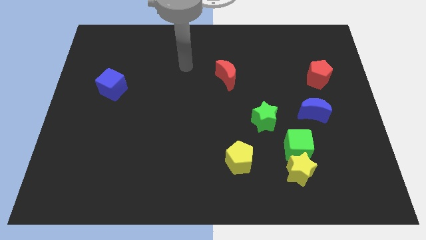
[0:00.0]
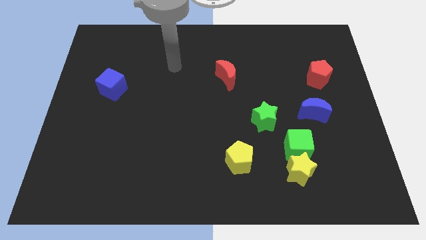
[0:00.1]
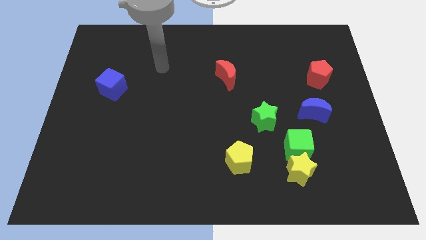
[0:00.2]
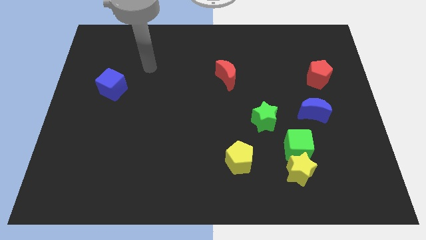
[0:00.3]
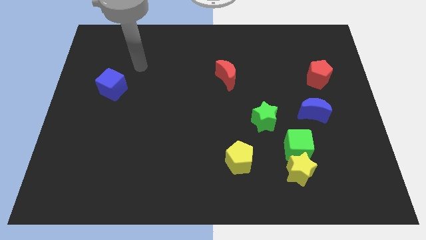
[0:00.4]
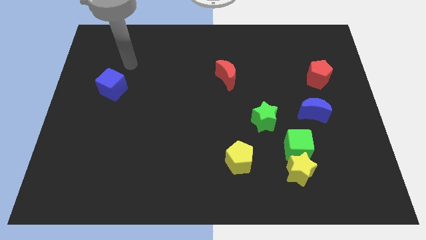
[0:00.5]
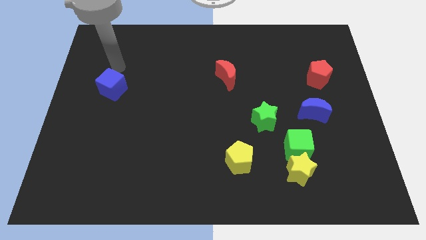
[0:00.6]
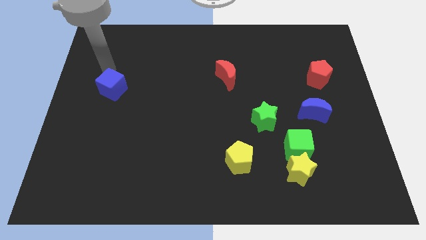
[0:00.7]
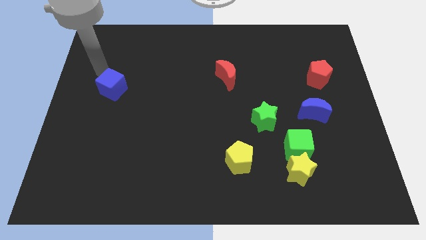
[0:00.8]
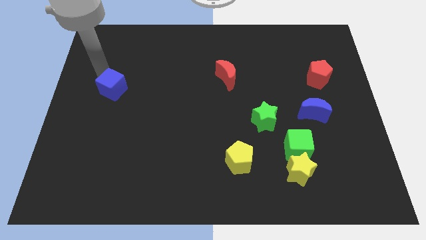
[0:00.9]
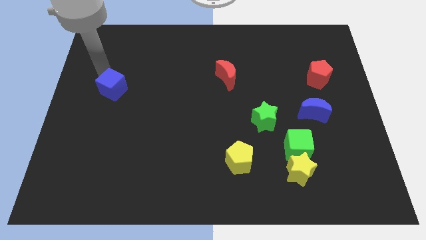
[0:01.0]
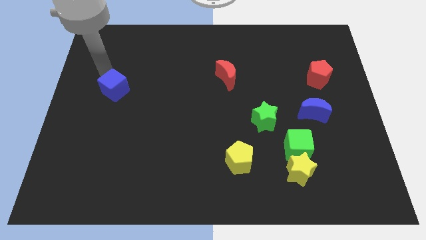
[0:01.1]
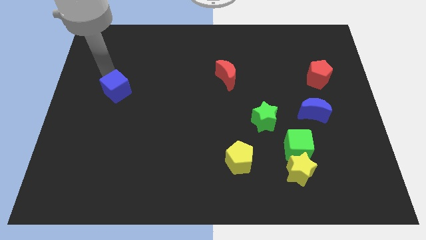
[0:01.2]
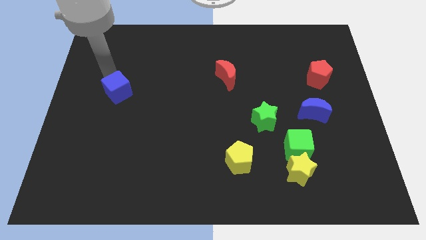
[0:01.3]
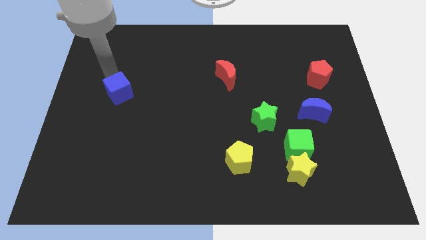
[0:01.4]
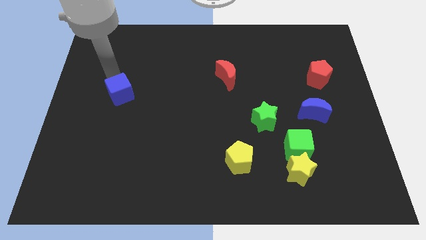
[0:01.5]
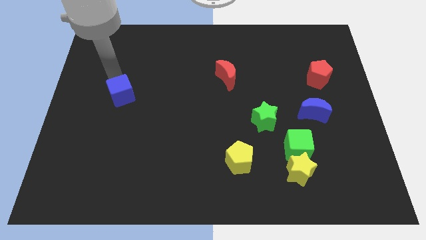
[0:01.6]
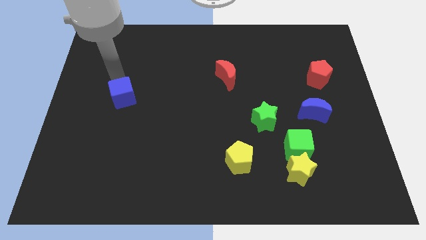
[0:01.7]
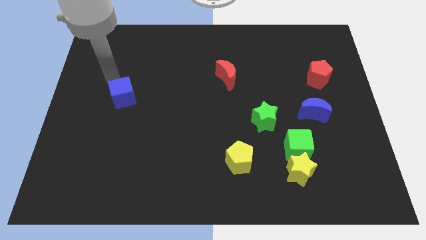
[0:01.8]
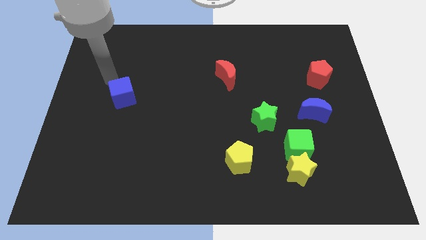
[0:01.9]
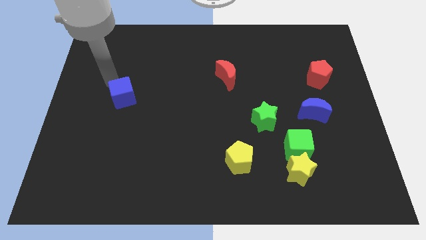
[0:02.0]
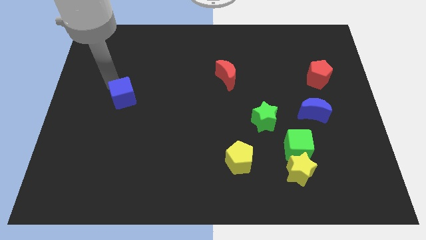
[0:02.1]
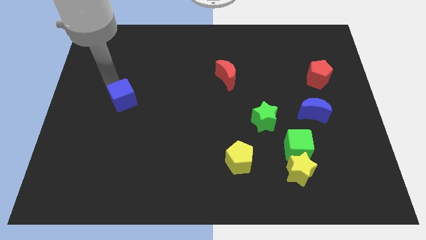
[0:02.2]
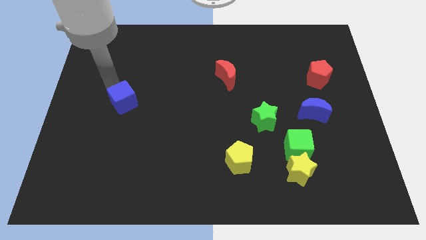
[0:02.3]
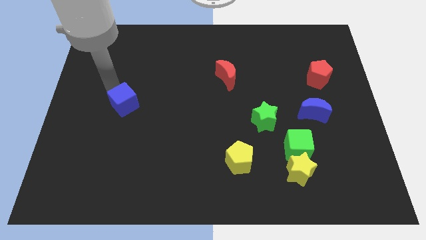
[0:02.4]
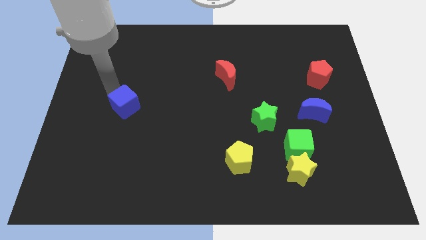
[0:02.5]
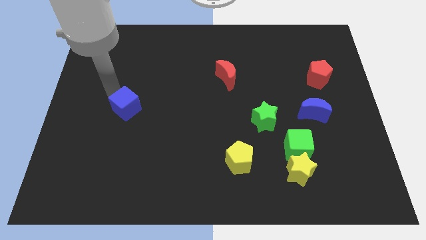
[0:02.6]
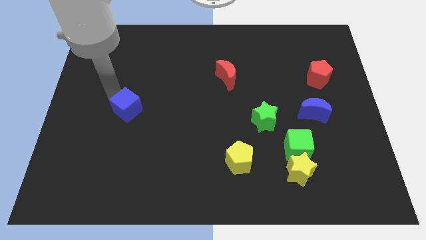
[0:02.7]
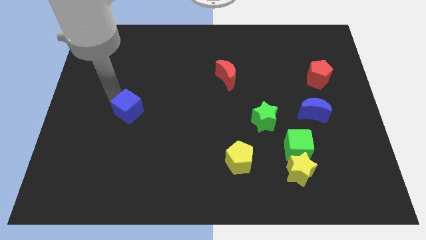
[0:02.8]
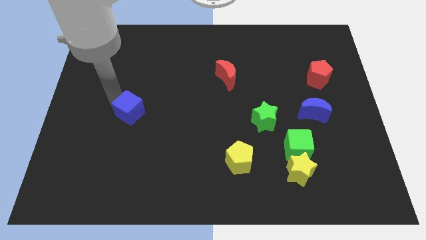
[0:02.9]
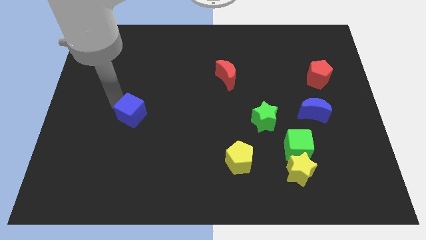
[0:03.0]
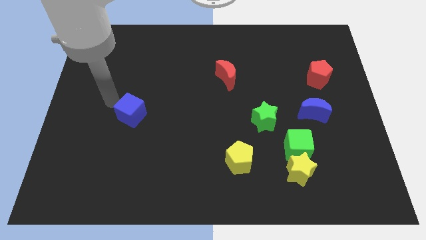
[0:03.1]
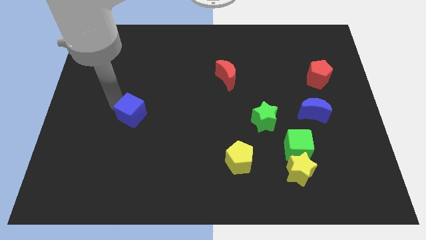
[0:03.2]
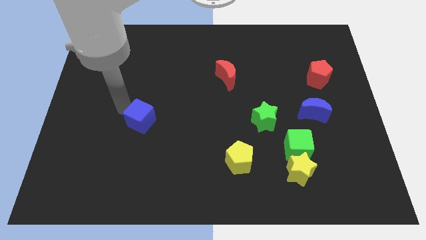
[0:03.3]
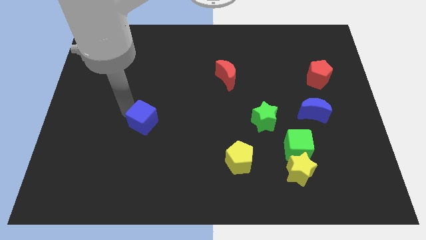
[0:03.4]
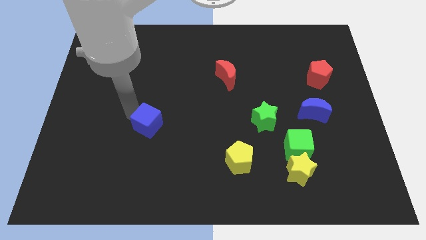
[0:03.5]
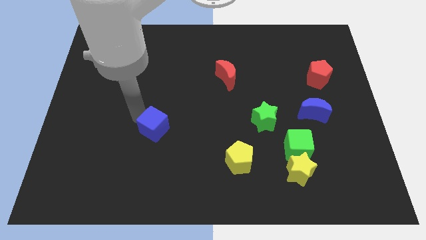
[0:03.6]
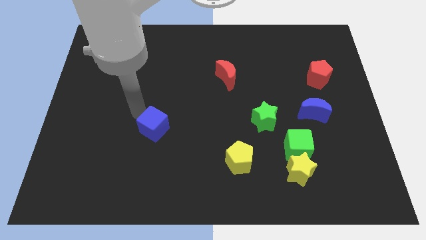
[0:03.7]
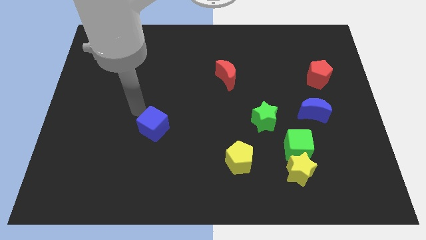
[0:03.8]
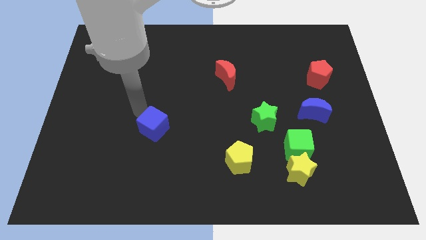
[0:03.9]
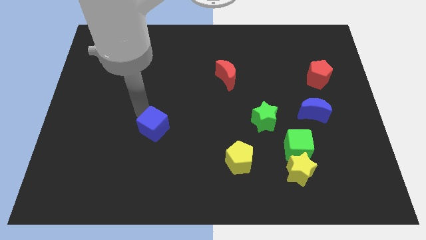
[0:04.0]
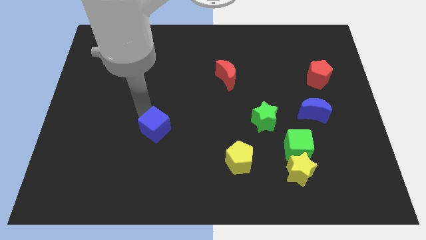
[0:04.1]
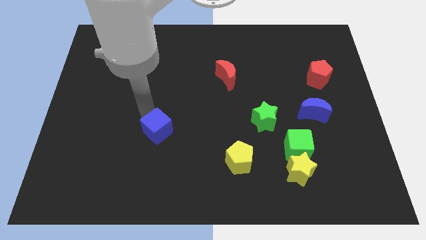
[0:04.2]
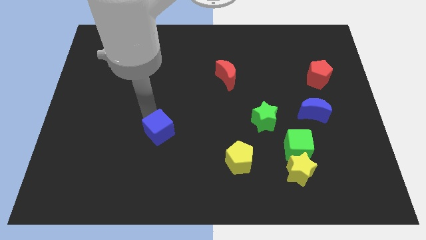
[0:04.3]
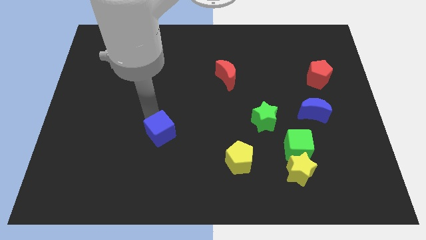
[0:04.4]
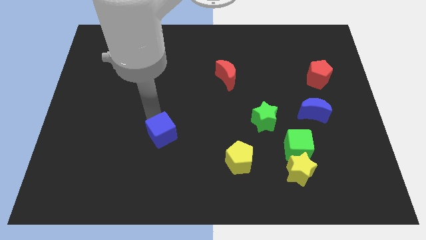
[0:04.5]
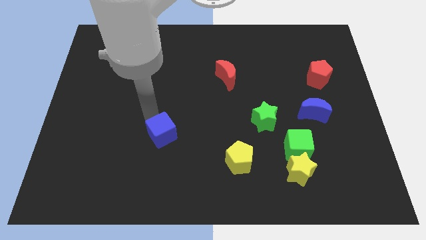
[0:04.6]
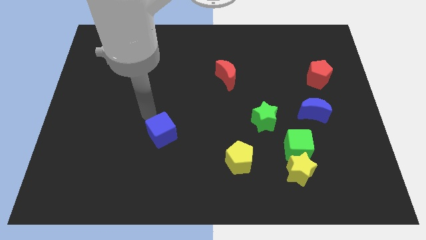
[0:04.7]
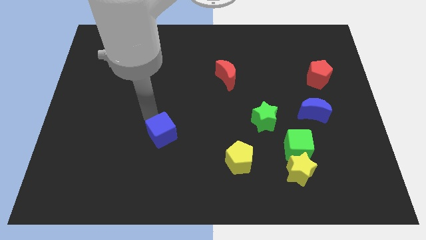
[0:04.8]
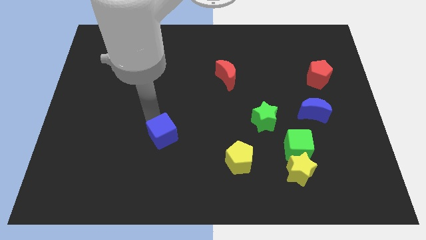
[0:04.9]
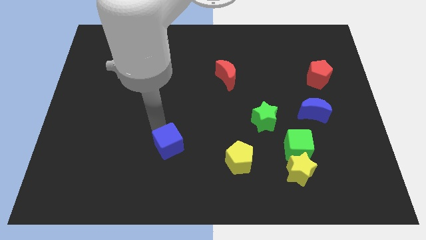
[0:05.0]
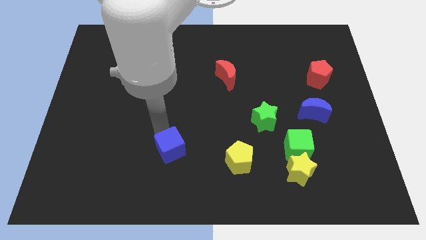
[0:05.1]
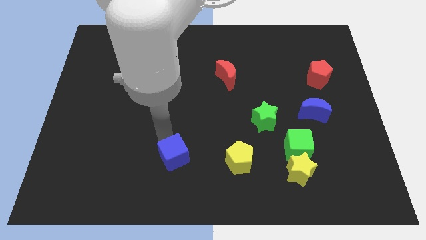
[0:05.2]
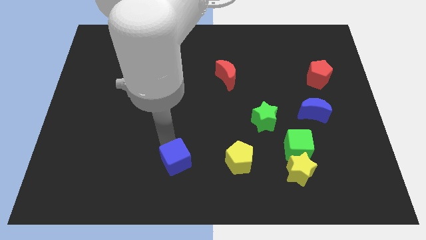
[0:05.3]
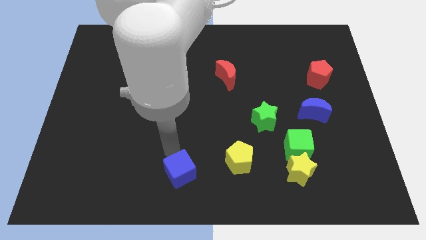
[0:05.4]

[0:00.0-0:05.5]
push the blue cube to the bottom side

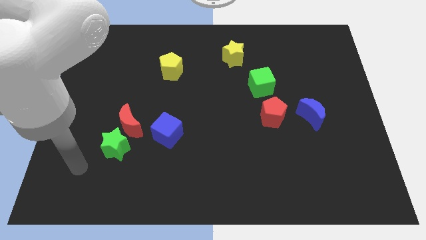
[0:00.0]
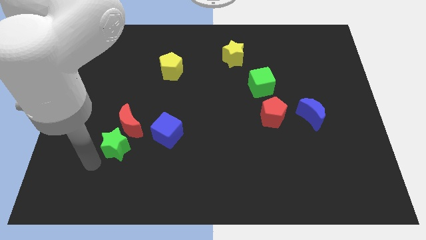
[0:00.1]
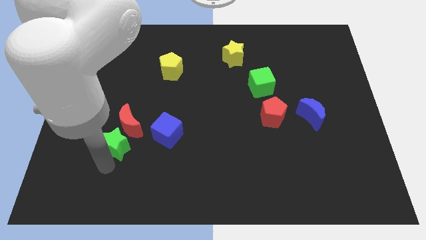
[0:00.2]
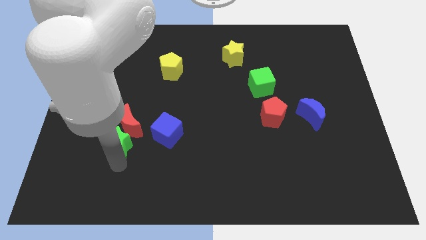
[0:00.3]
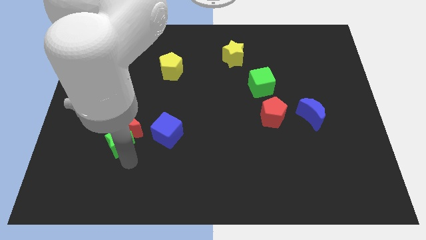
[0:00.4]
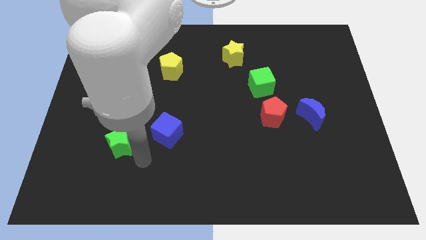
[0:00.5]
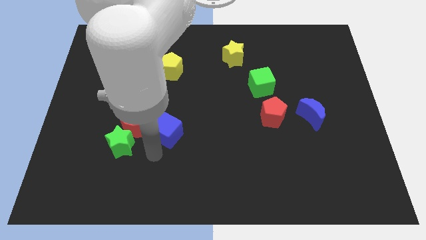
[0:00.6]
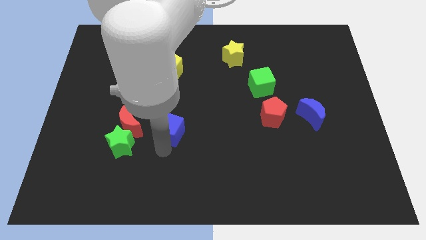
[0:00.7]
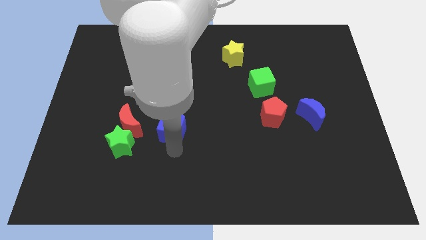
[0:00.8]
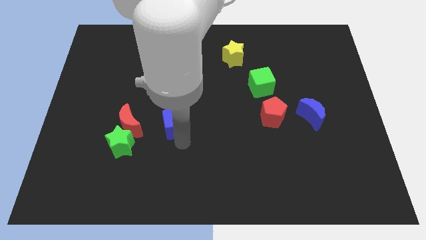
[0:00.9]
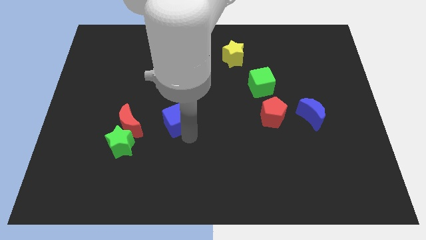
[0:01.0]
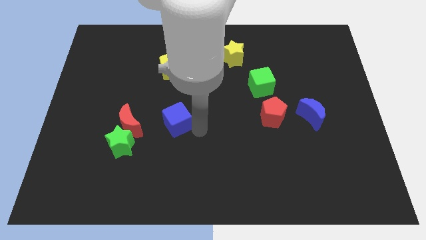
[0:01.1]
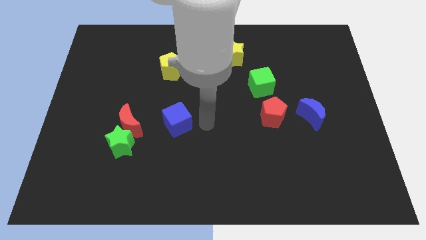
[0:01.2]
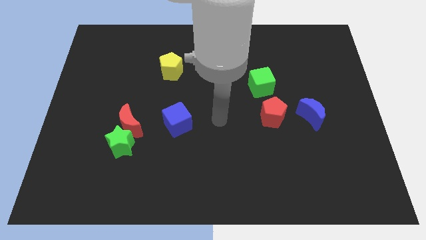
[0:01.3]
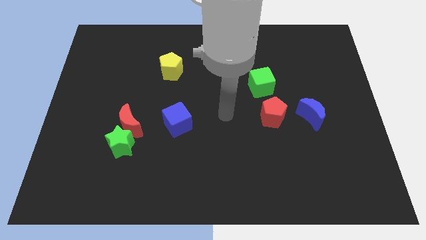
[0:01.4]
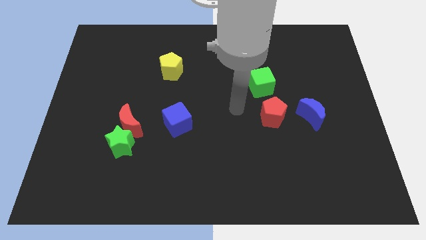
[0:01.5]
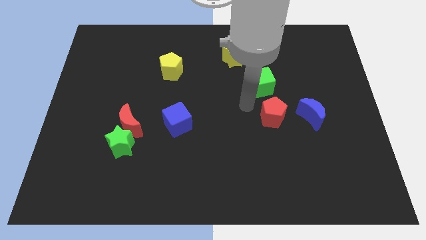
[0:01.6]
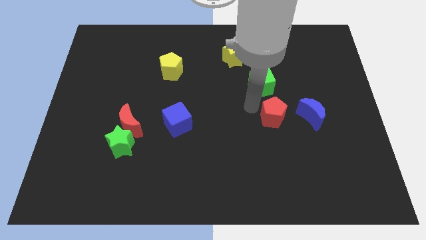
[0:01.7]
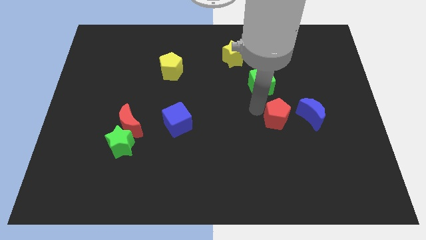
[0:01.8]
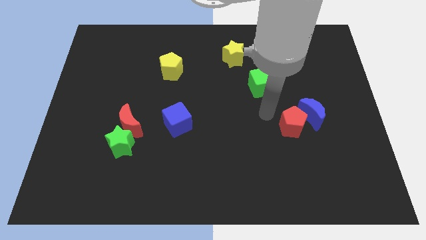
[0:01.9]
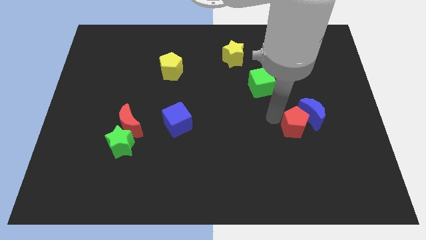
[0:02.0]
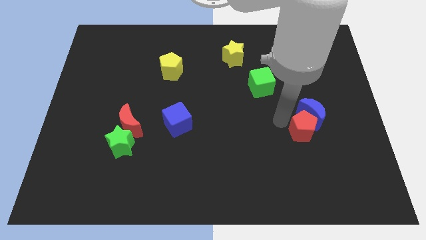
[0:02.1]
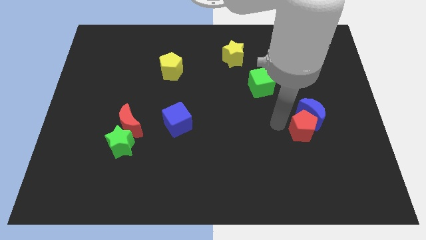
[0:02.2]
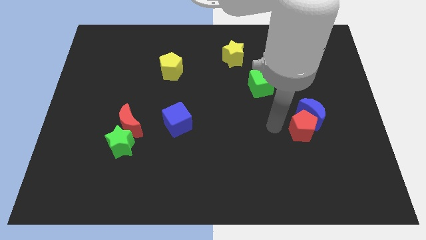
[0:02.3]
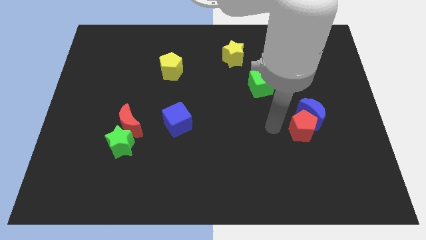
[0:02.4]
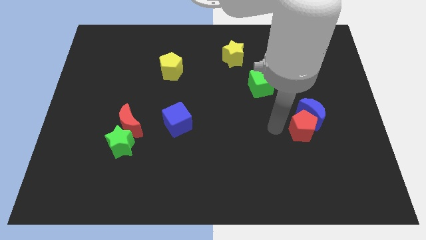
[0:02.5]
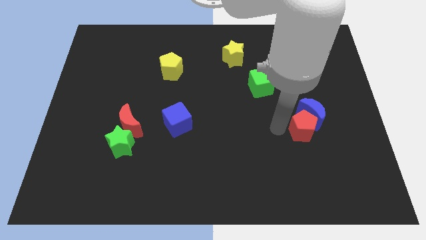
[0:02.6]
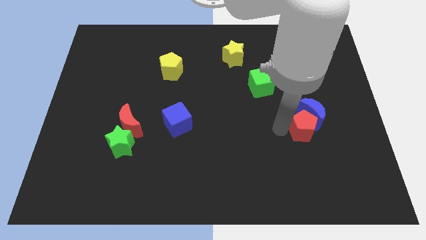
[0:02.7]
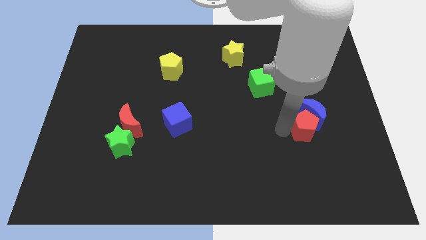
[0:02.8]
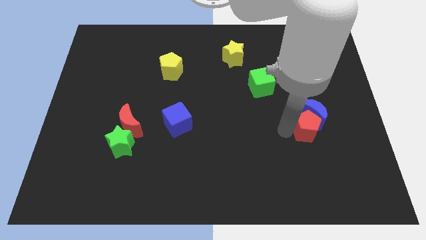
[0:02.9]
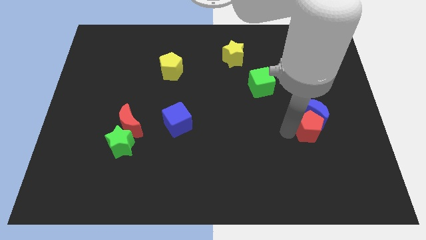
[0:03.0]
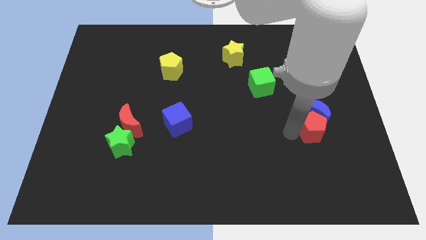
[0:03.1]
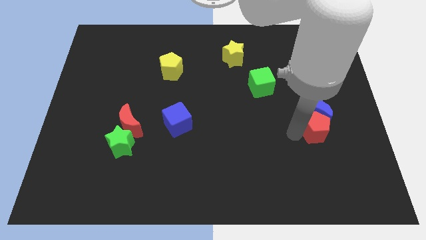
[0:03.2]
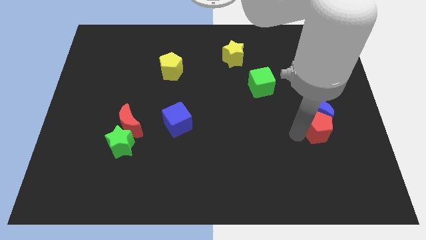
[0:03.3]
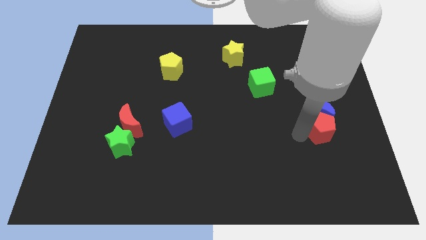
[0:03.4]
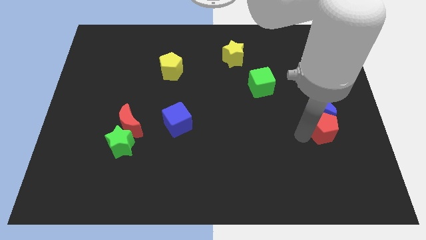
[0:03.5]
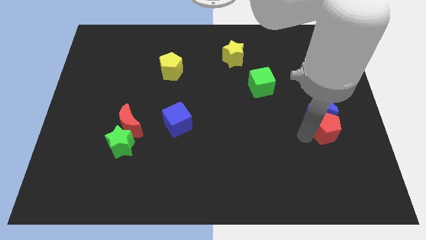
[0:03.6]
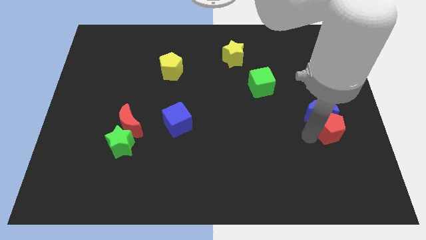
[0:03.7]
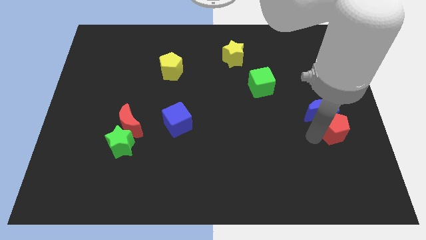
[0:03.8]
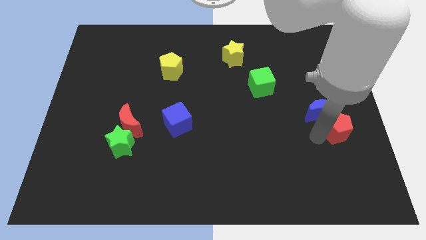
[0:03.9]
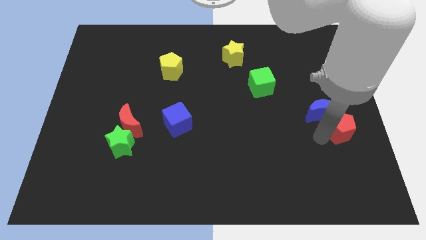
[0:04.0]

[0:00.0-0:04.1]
move the red pentagon to the right side
